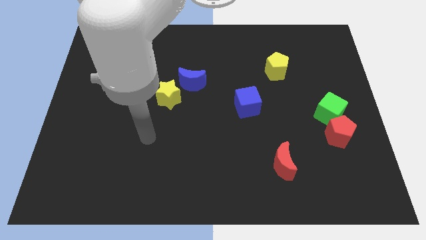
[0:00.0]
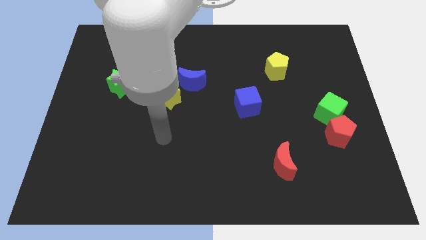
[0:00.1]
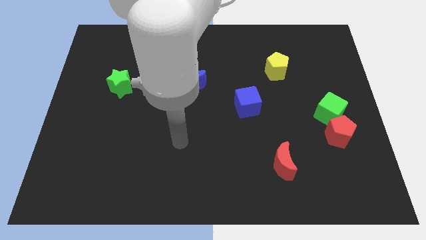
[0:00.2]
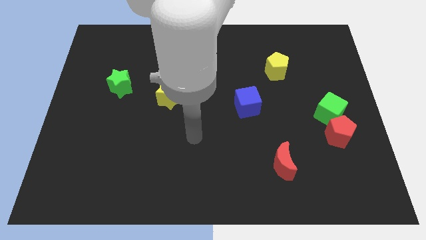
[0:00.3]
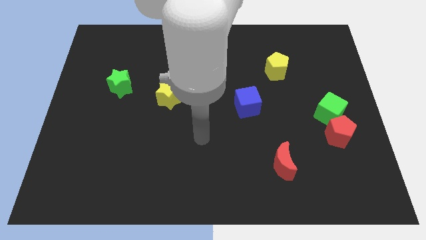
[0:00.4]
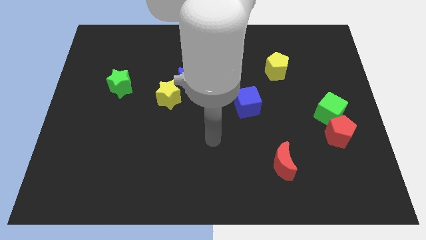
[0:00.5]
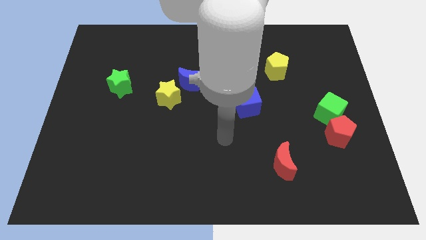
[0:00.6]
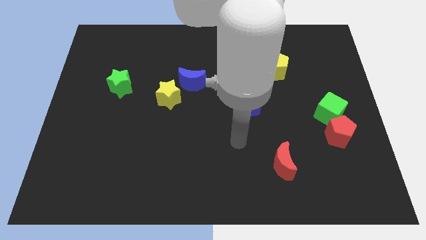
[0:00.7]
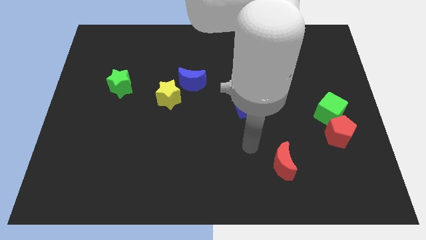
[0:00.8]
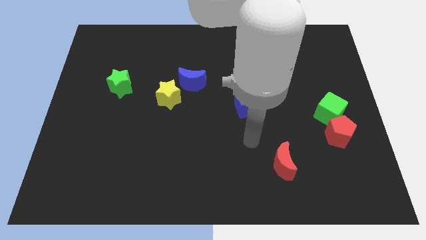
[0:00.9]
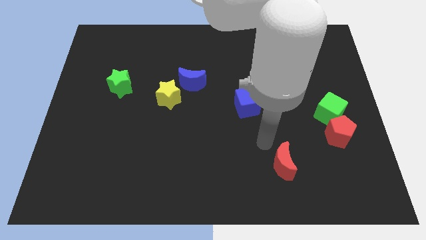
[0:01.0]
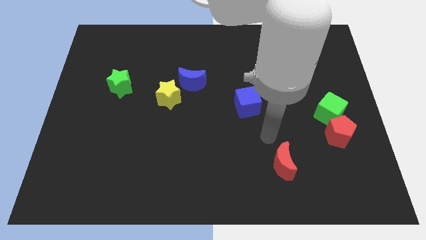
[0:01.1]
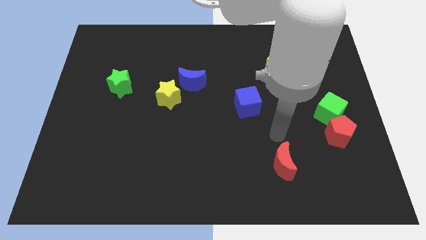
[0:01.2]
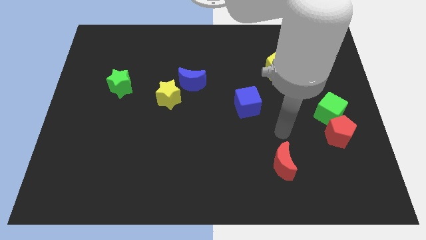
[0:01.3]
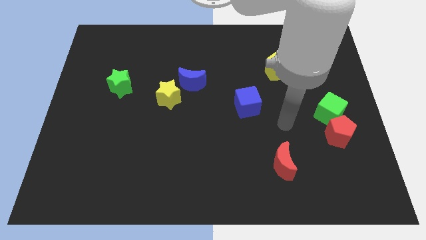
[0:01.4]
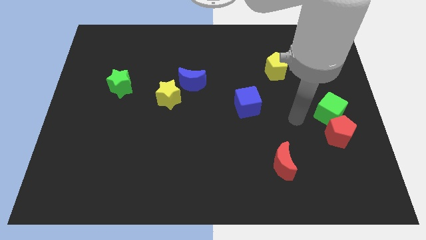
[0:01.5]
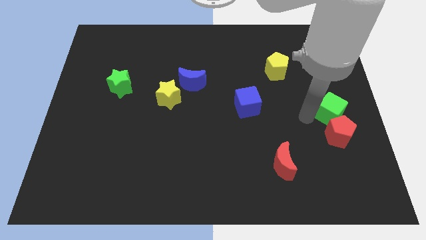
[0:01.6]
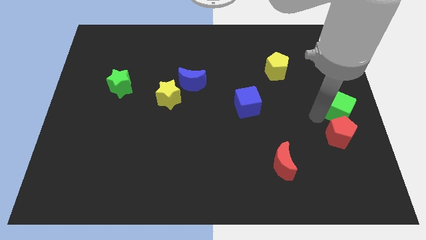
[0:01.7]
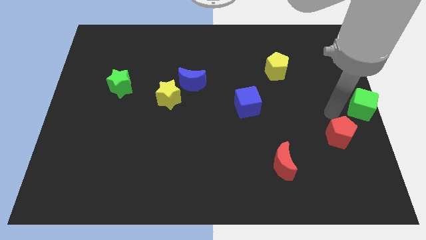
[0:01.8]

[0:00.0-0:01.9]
move the red pentagon away from the green cube

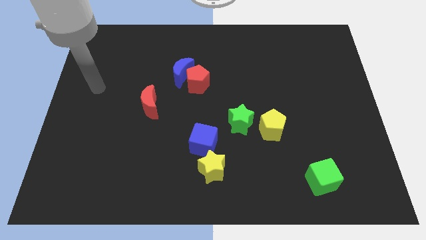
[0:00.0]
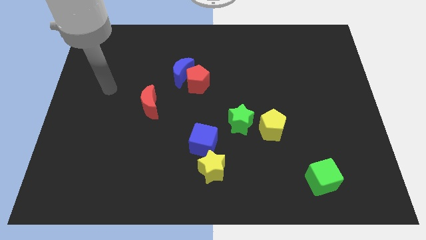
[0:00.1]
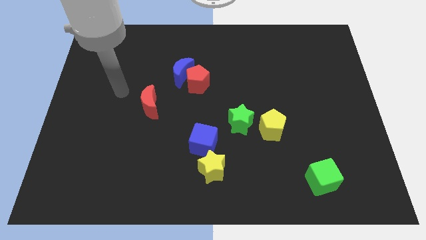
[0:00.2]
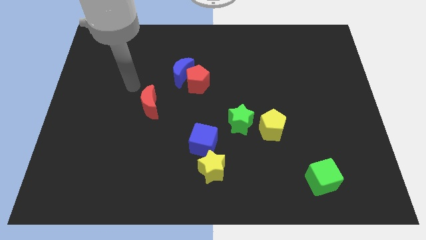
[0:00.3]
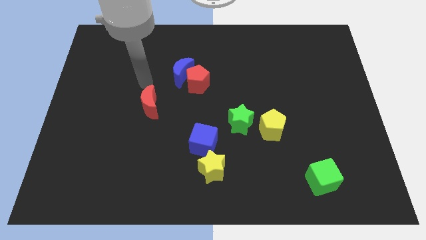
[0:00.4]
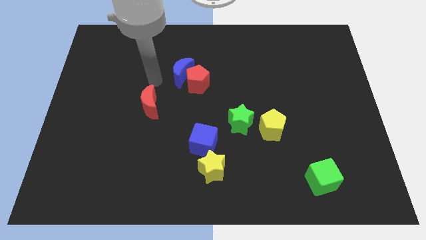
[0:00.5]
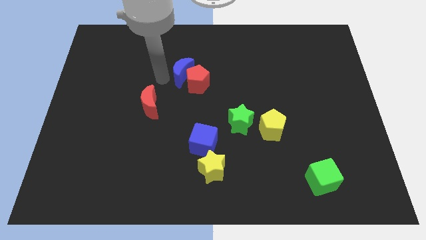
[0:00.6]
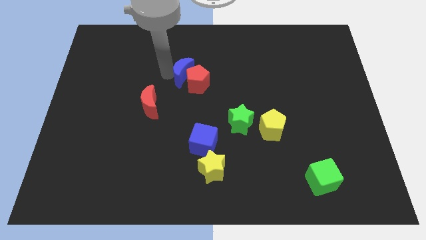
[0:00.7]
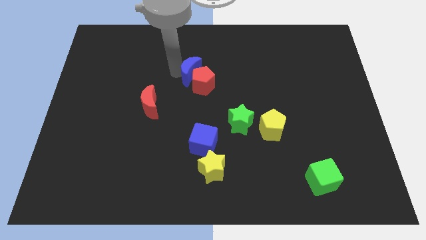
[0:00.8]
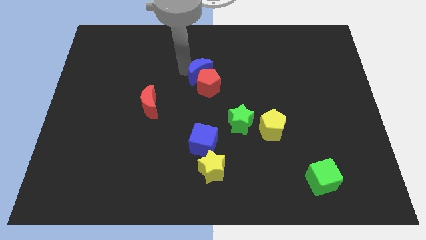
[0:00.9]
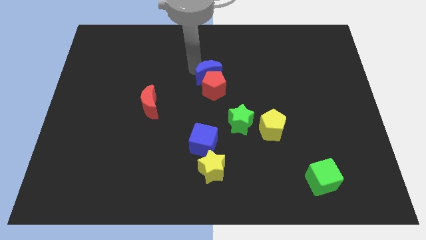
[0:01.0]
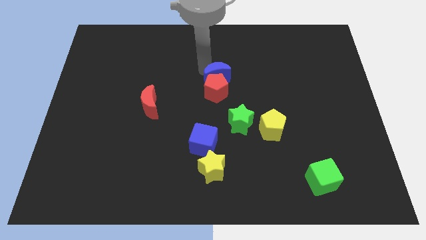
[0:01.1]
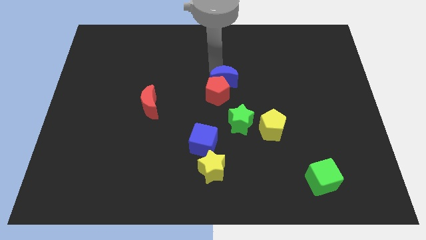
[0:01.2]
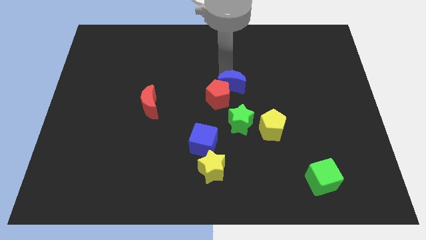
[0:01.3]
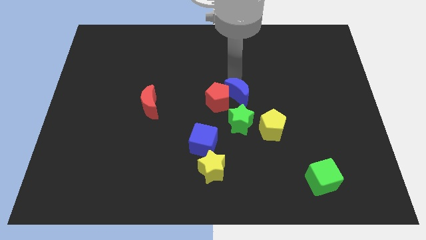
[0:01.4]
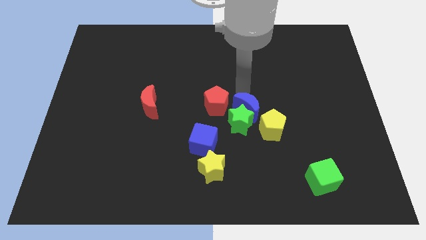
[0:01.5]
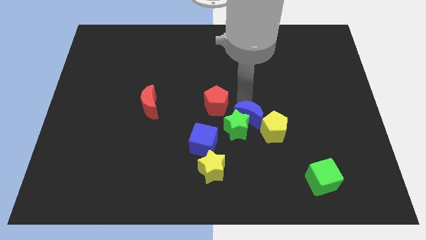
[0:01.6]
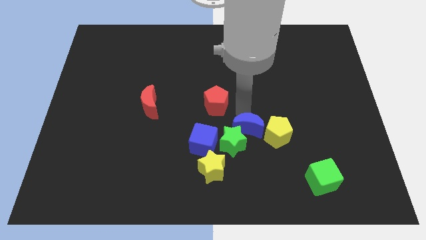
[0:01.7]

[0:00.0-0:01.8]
pull the red pentagon apart from the blue moon

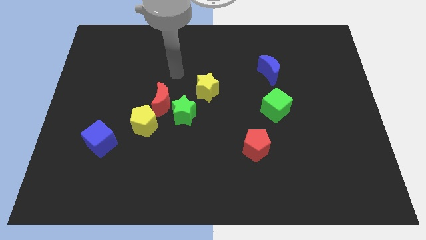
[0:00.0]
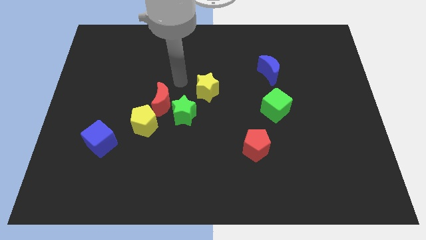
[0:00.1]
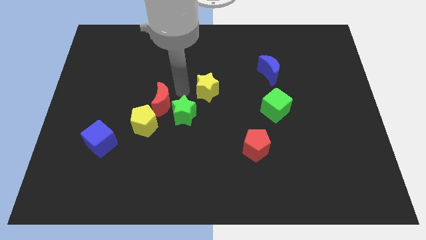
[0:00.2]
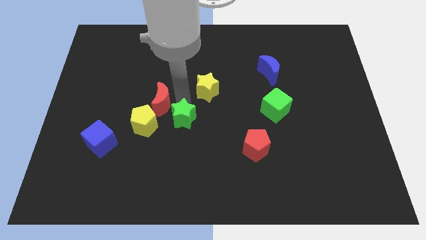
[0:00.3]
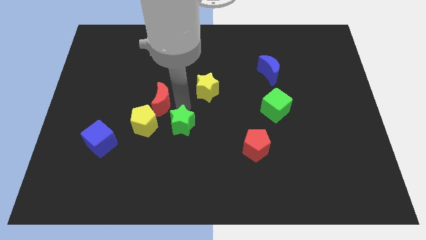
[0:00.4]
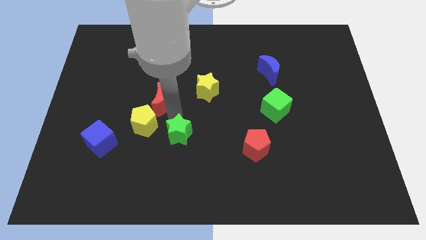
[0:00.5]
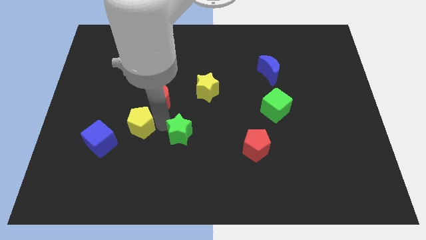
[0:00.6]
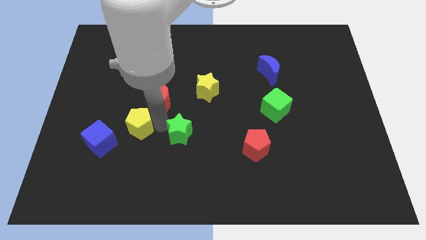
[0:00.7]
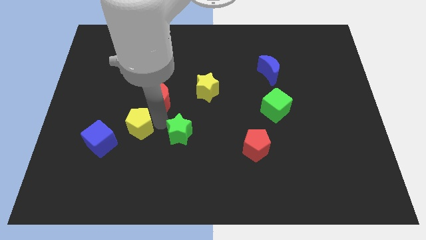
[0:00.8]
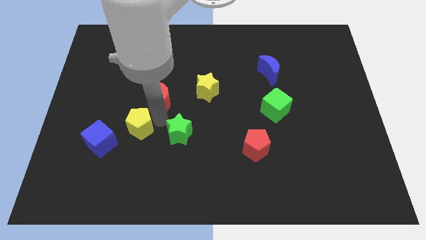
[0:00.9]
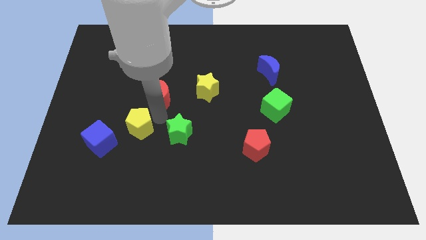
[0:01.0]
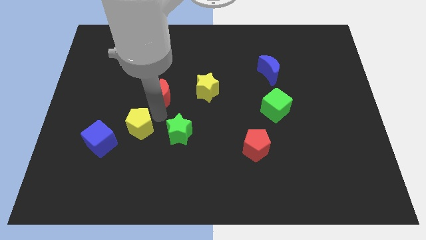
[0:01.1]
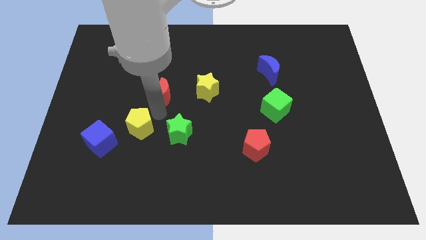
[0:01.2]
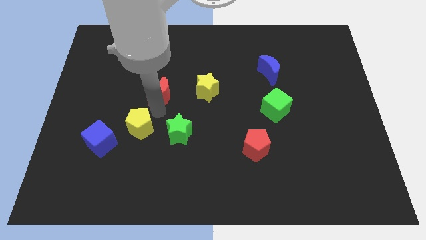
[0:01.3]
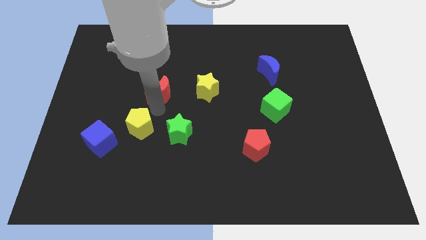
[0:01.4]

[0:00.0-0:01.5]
move the red moon away from the green star and yellow pentagon

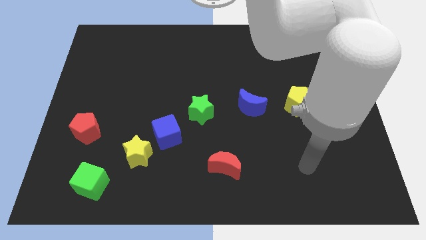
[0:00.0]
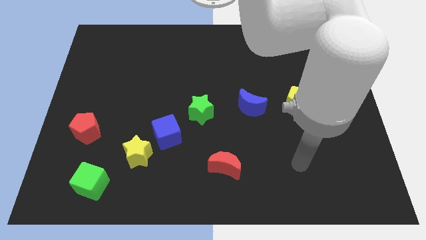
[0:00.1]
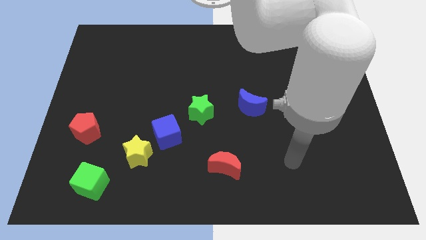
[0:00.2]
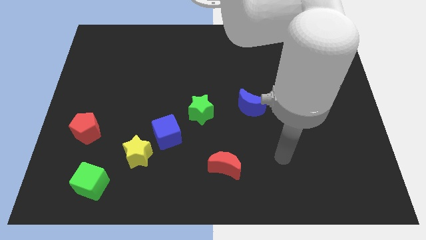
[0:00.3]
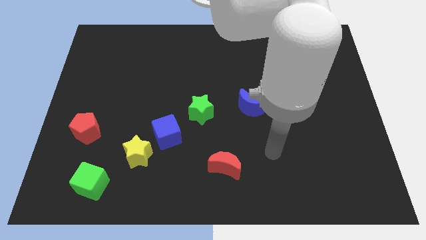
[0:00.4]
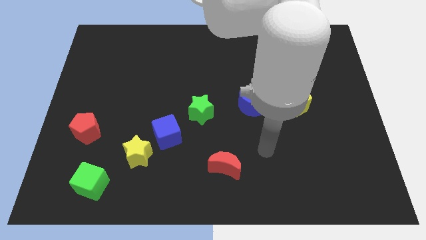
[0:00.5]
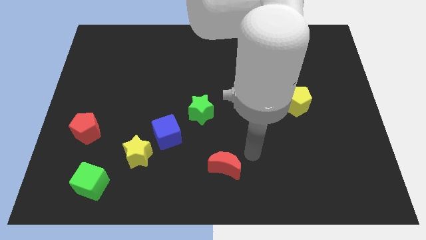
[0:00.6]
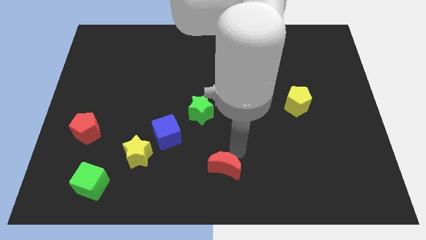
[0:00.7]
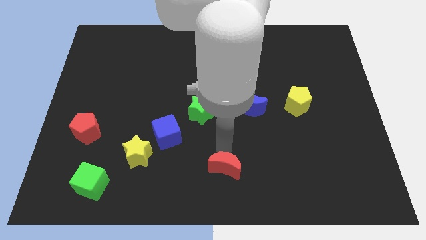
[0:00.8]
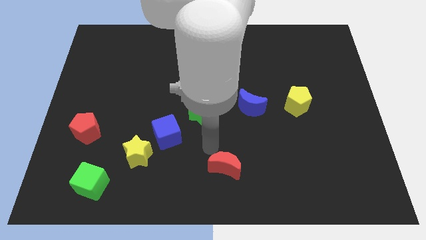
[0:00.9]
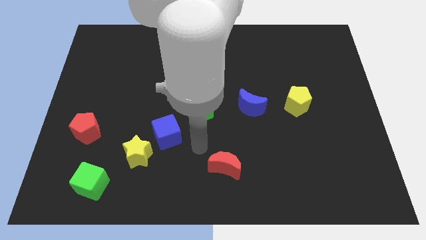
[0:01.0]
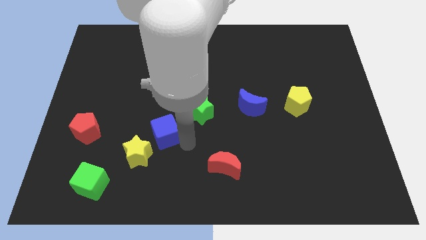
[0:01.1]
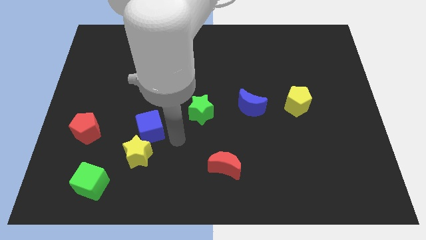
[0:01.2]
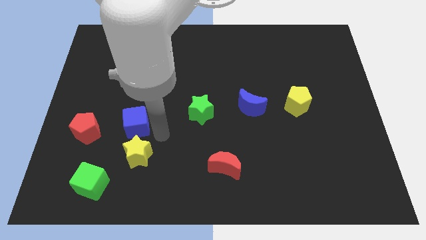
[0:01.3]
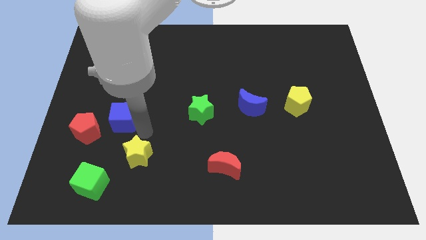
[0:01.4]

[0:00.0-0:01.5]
move the yellow star away from the blue cube

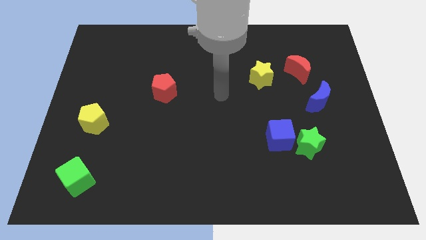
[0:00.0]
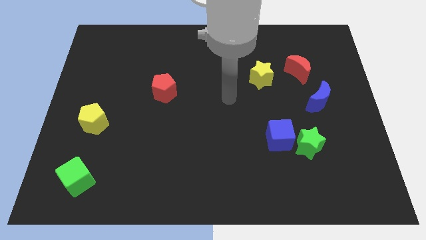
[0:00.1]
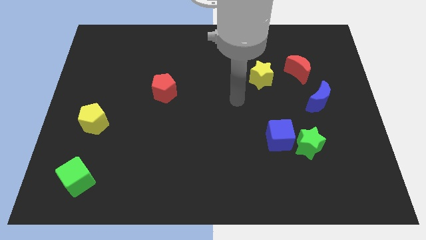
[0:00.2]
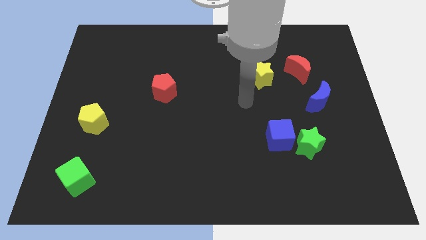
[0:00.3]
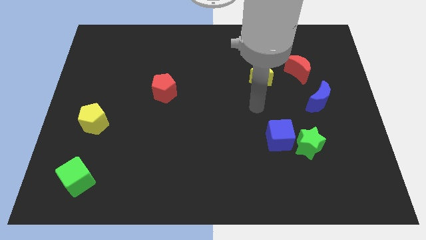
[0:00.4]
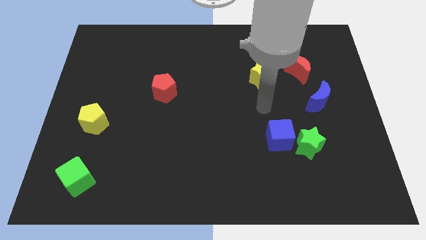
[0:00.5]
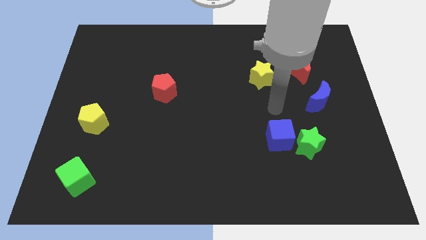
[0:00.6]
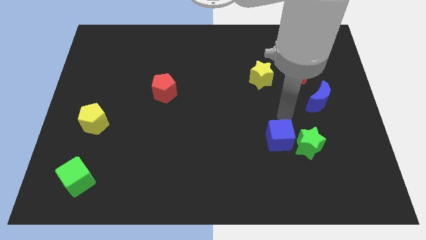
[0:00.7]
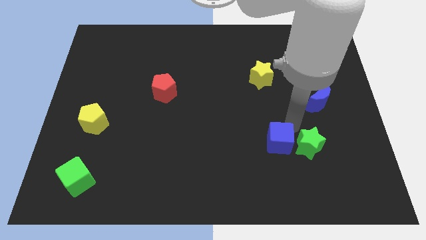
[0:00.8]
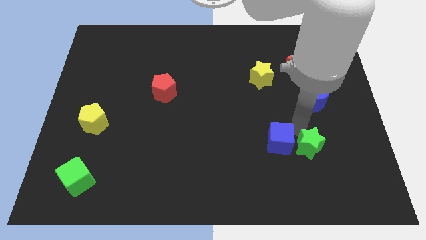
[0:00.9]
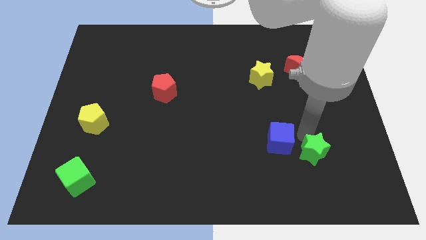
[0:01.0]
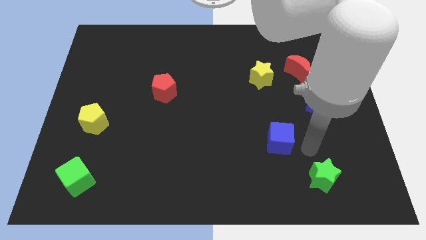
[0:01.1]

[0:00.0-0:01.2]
move the blue cube away from the green star

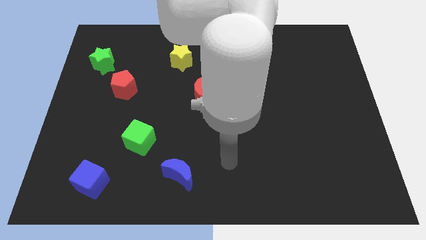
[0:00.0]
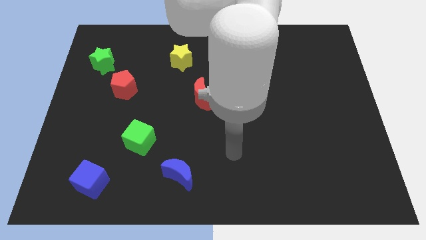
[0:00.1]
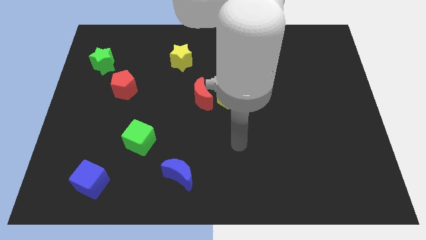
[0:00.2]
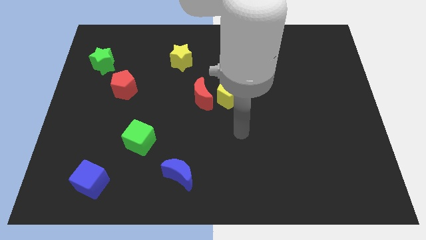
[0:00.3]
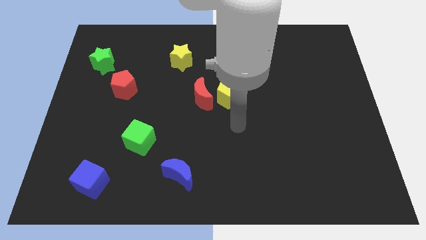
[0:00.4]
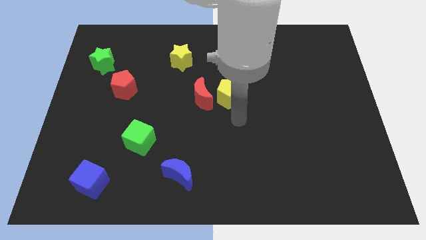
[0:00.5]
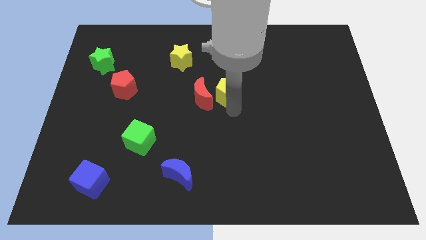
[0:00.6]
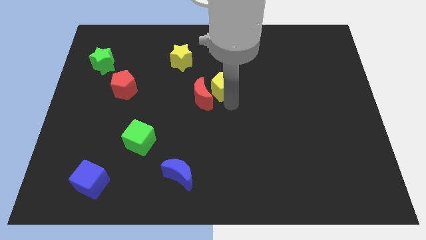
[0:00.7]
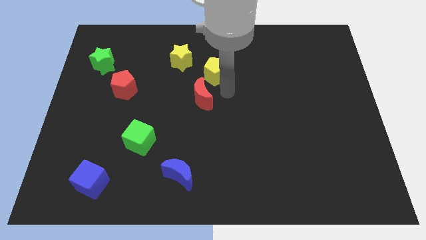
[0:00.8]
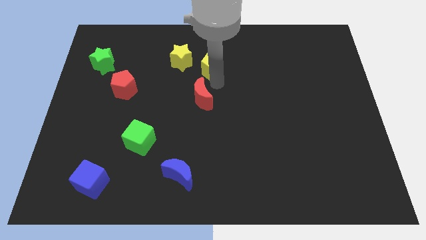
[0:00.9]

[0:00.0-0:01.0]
pull the red moon apart from the yellow pentagon

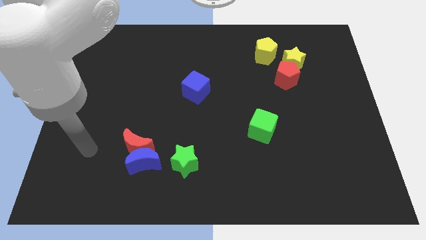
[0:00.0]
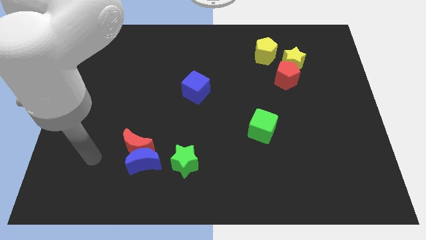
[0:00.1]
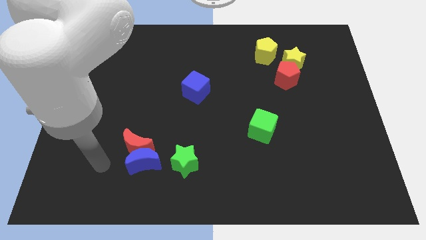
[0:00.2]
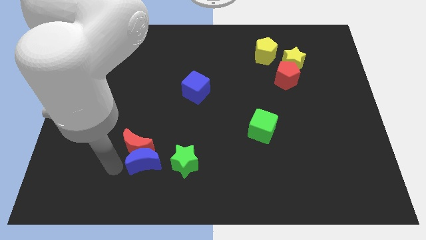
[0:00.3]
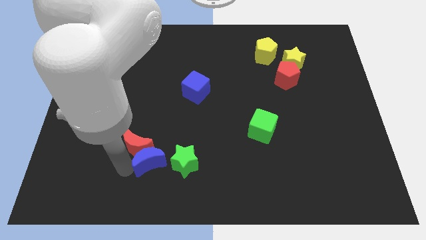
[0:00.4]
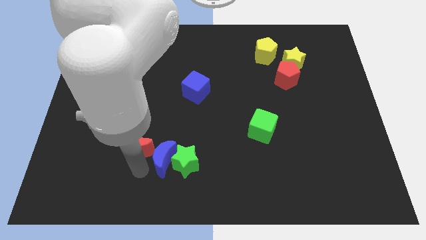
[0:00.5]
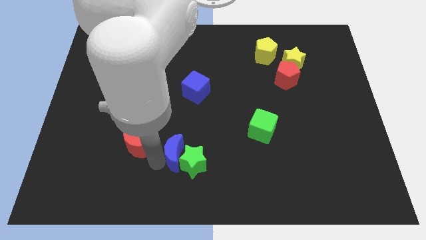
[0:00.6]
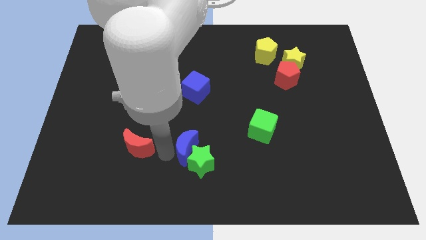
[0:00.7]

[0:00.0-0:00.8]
move the red moon away from the blue moon
